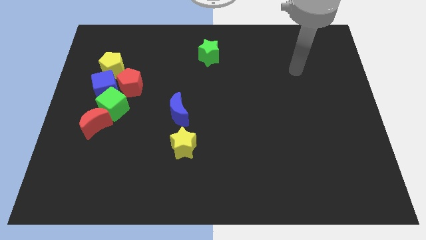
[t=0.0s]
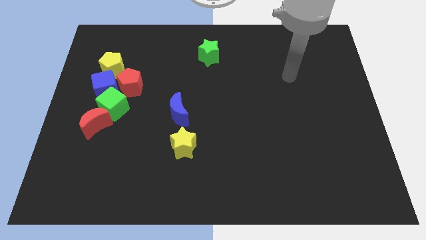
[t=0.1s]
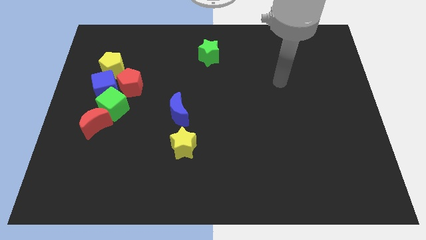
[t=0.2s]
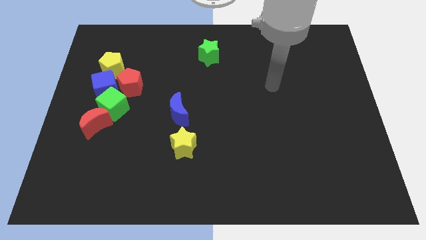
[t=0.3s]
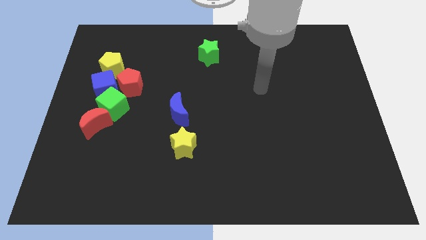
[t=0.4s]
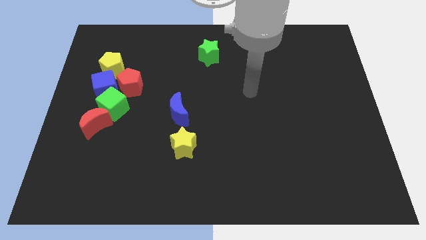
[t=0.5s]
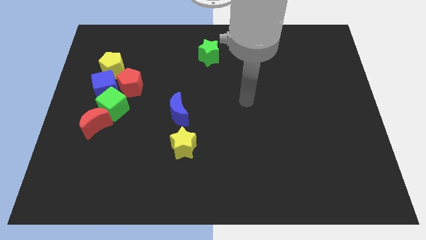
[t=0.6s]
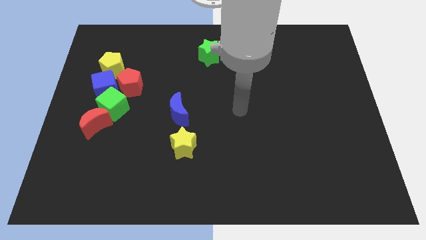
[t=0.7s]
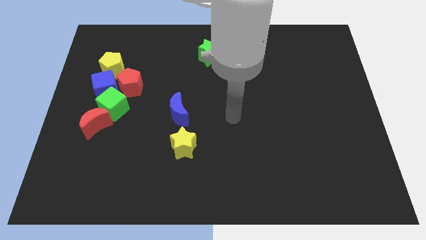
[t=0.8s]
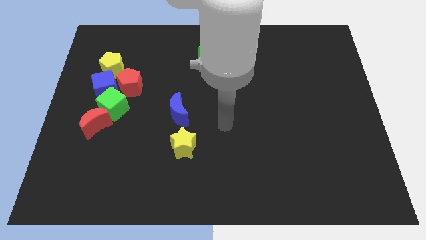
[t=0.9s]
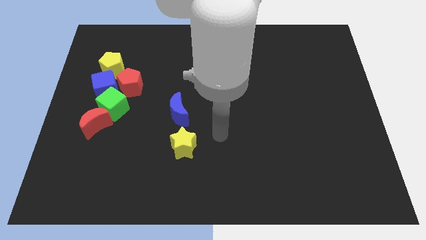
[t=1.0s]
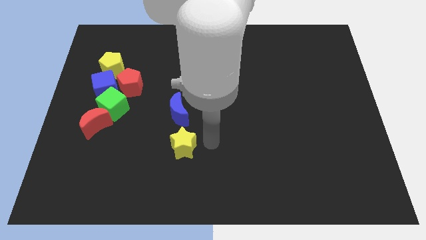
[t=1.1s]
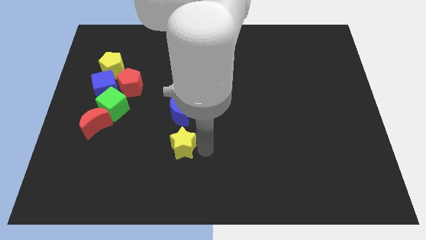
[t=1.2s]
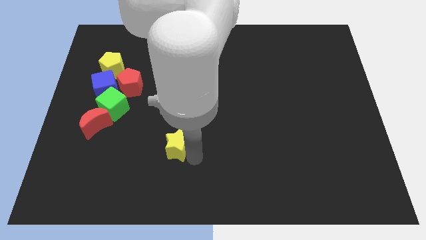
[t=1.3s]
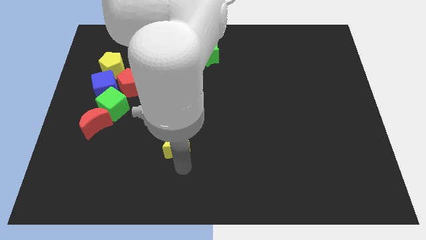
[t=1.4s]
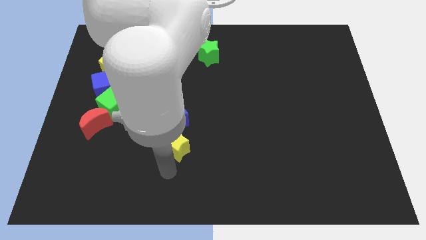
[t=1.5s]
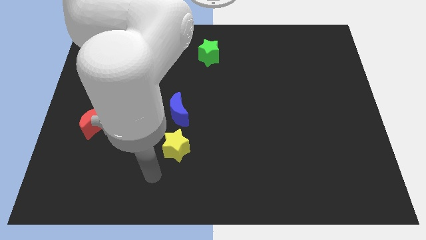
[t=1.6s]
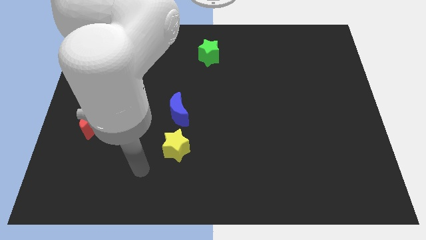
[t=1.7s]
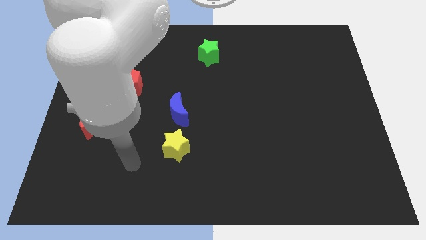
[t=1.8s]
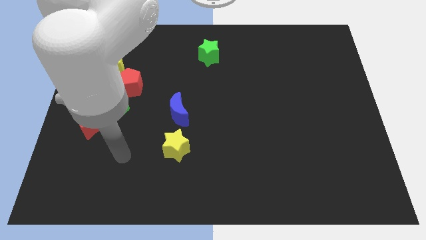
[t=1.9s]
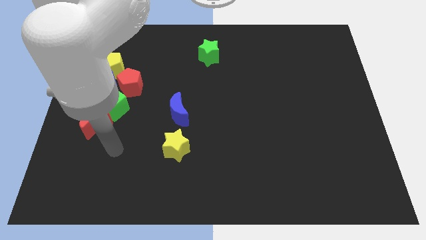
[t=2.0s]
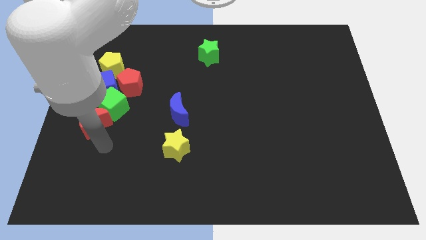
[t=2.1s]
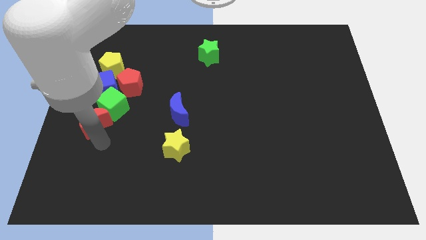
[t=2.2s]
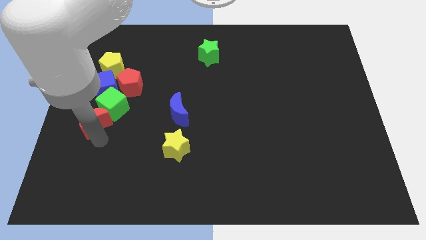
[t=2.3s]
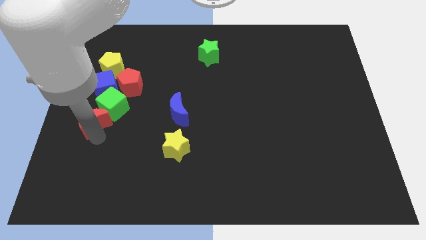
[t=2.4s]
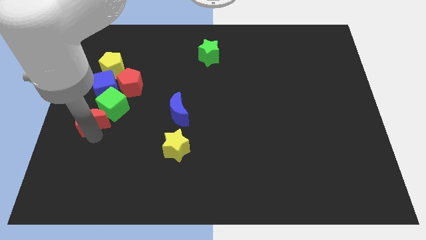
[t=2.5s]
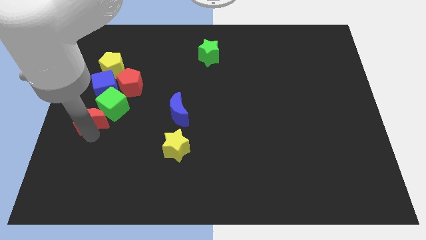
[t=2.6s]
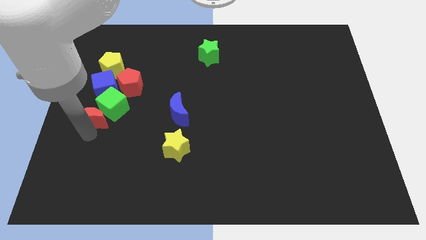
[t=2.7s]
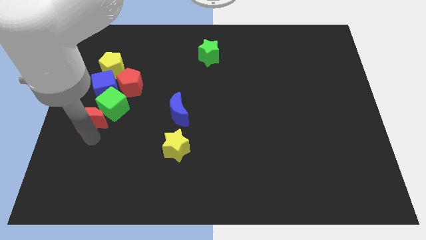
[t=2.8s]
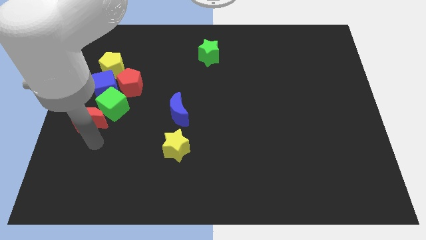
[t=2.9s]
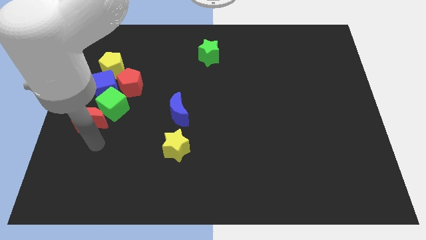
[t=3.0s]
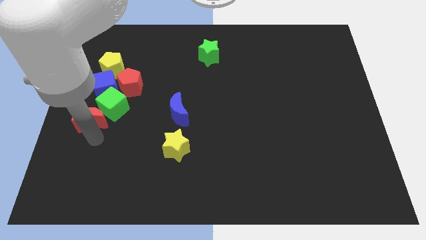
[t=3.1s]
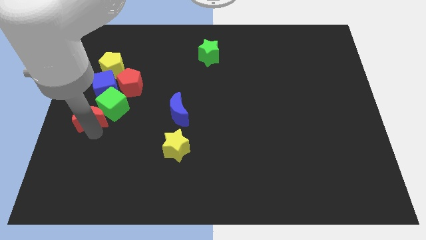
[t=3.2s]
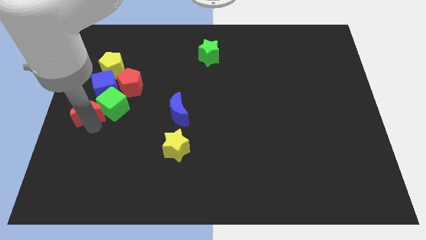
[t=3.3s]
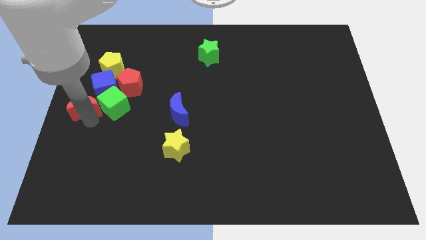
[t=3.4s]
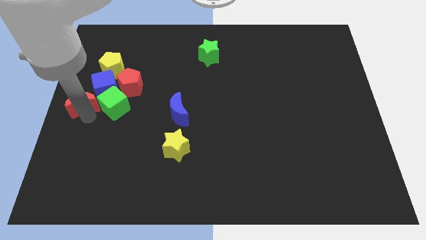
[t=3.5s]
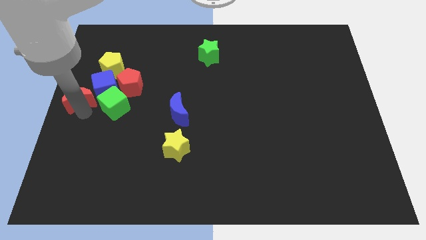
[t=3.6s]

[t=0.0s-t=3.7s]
slide the red moon diagonally up and to the left of the green cube

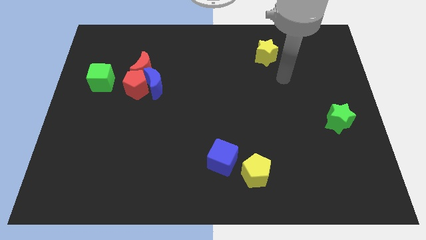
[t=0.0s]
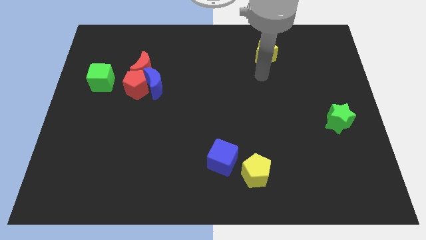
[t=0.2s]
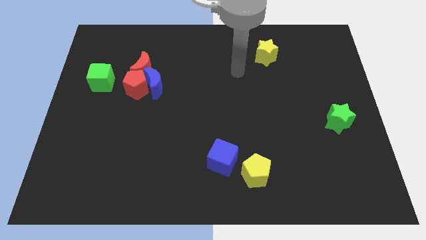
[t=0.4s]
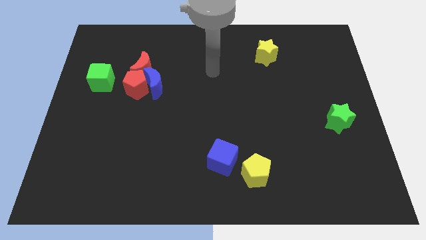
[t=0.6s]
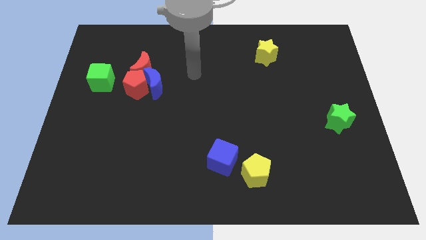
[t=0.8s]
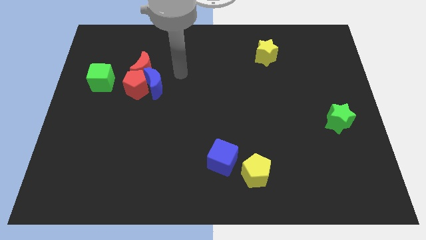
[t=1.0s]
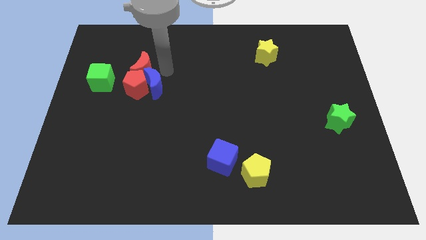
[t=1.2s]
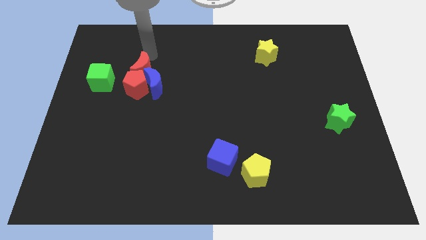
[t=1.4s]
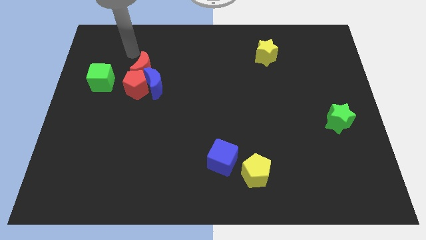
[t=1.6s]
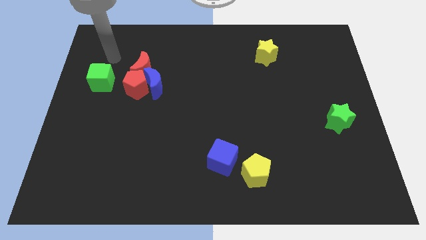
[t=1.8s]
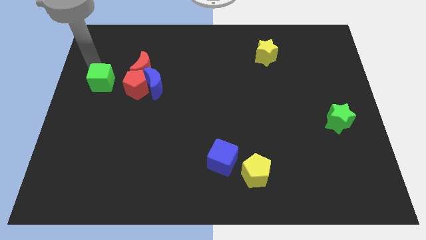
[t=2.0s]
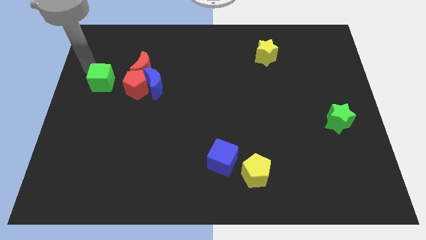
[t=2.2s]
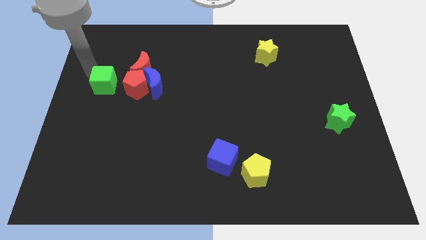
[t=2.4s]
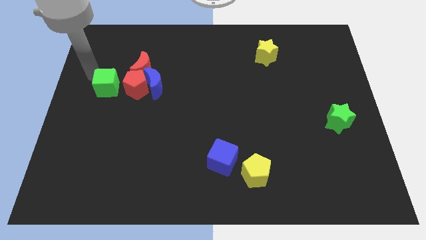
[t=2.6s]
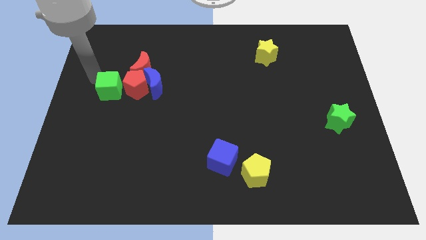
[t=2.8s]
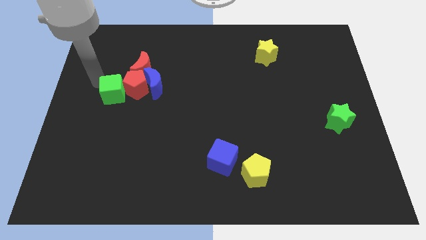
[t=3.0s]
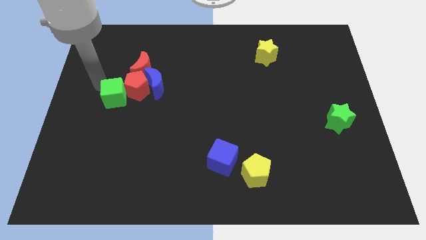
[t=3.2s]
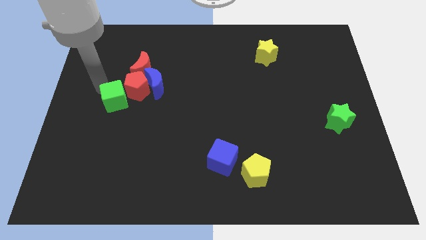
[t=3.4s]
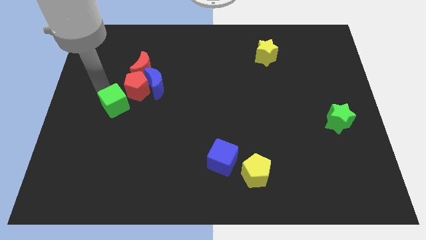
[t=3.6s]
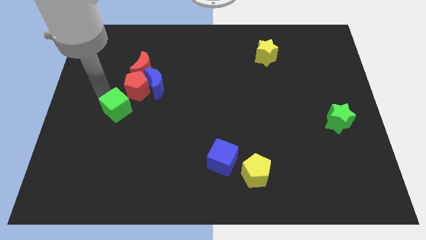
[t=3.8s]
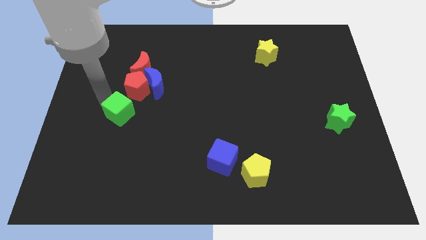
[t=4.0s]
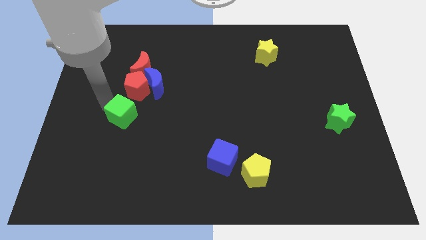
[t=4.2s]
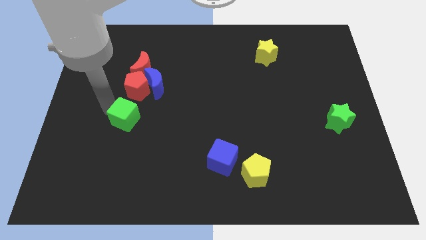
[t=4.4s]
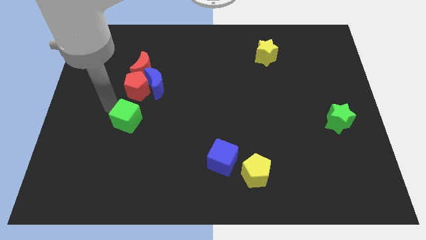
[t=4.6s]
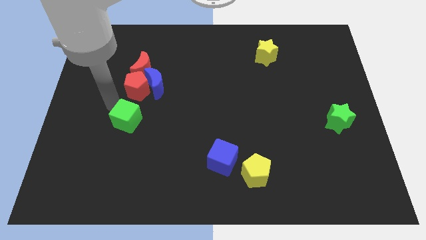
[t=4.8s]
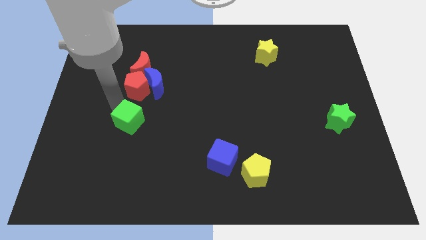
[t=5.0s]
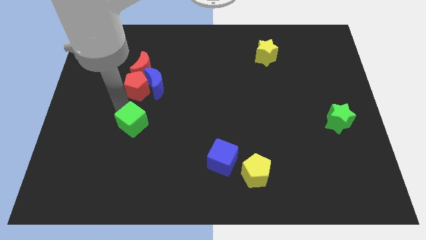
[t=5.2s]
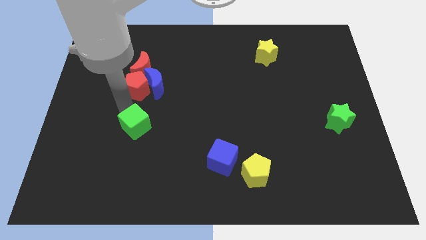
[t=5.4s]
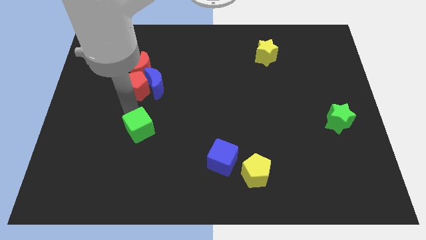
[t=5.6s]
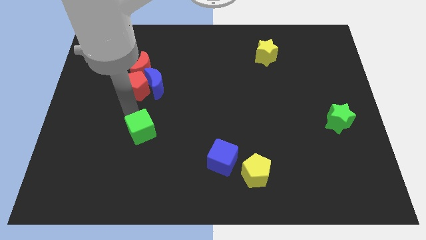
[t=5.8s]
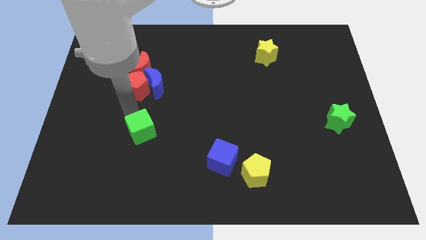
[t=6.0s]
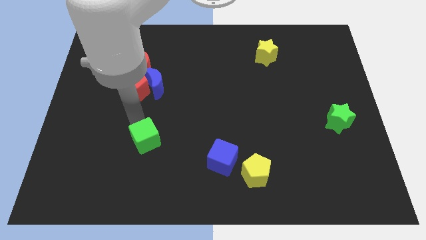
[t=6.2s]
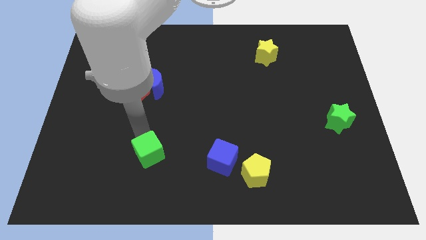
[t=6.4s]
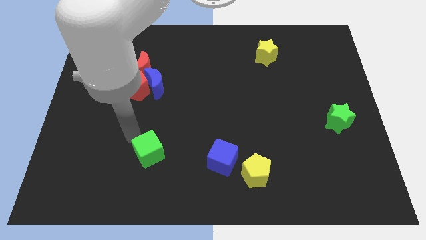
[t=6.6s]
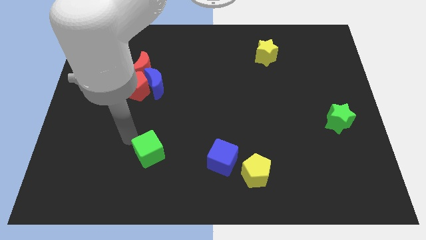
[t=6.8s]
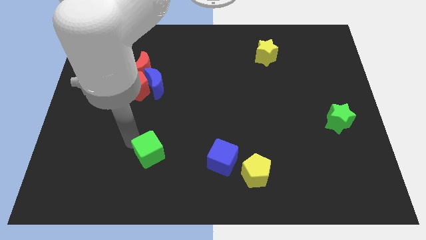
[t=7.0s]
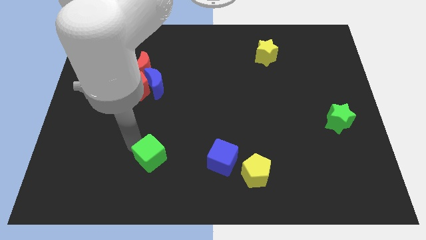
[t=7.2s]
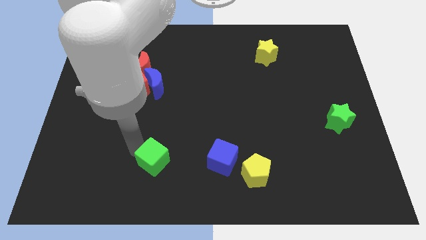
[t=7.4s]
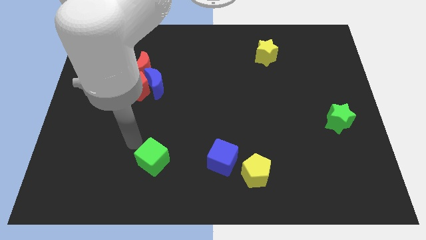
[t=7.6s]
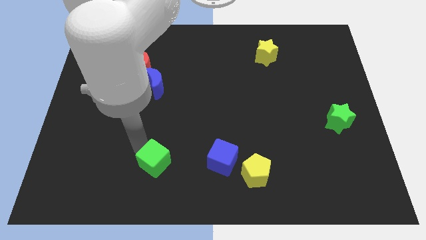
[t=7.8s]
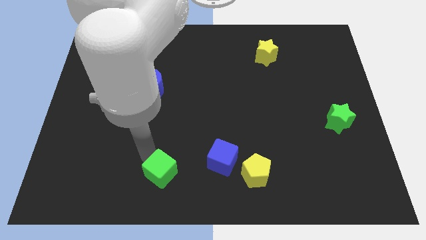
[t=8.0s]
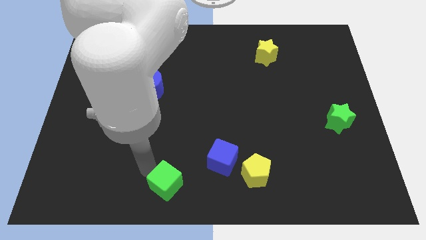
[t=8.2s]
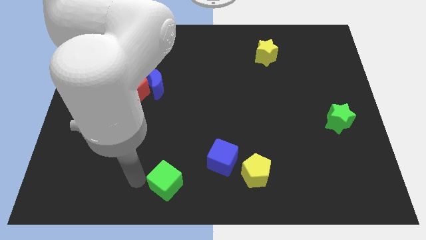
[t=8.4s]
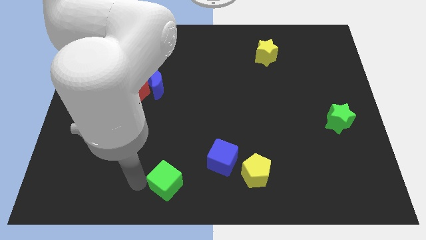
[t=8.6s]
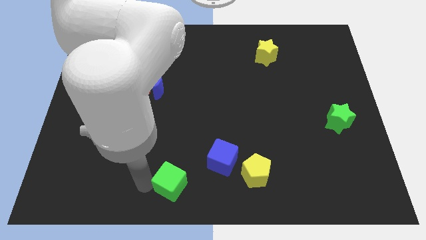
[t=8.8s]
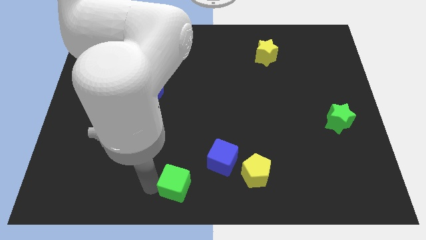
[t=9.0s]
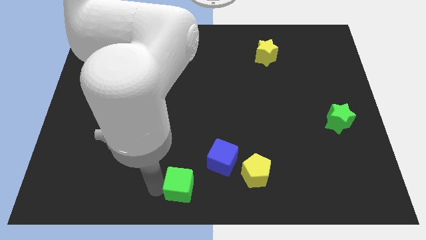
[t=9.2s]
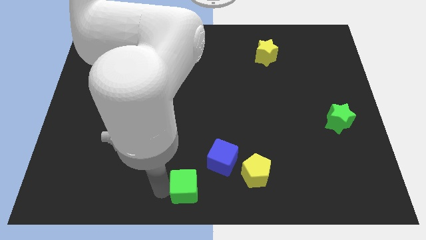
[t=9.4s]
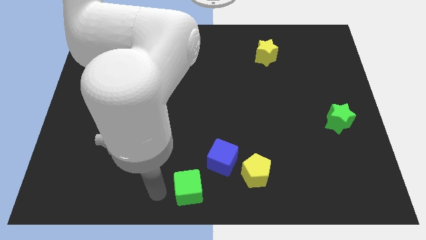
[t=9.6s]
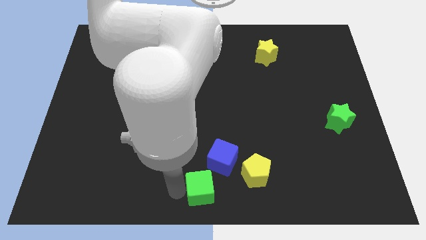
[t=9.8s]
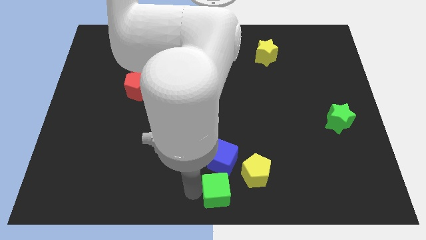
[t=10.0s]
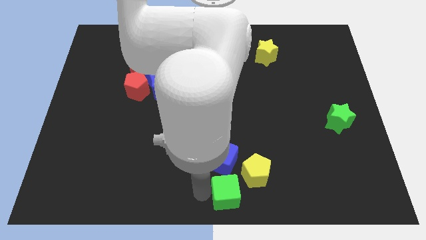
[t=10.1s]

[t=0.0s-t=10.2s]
put the green cube to the bottom right side of the blue cube
